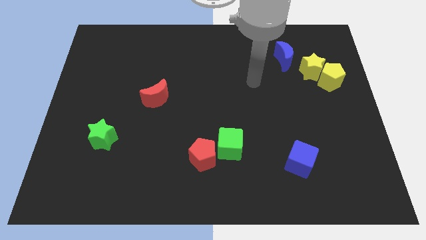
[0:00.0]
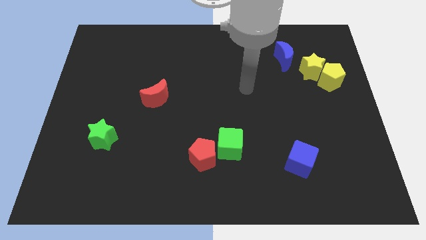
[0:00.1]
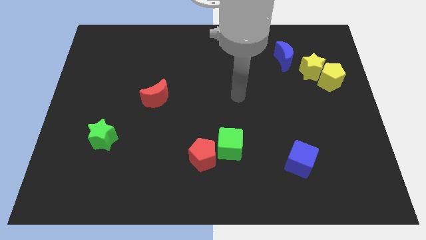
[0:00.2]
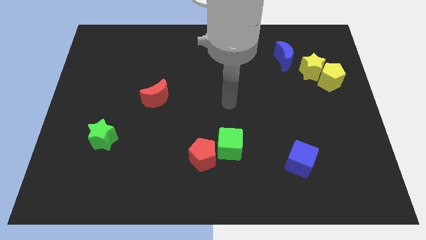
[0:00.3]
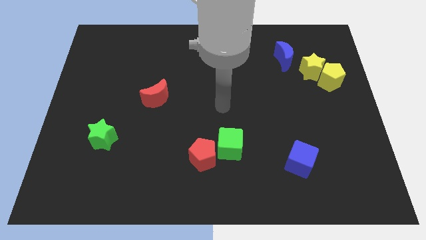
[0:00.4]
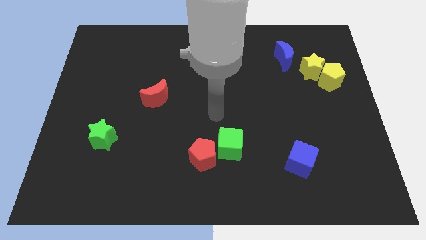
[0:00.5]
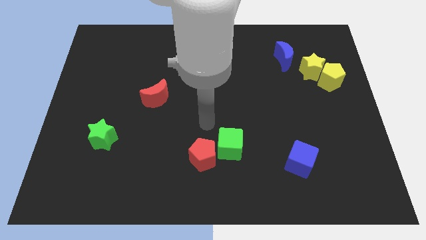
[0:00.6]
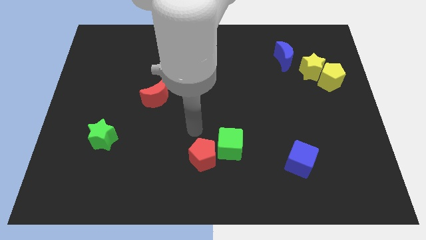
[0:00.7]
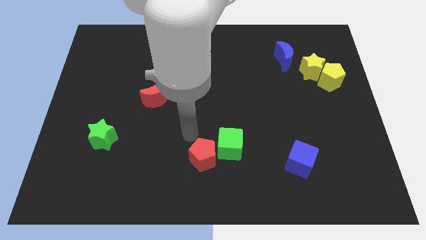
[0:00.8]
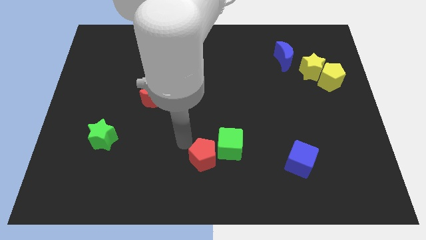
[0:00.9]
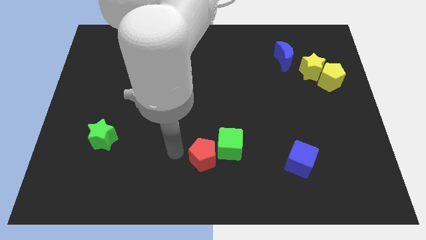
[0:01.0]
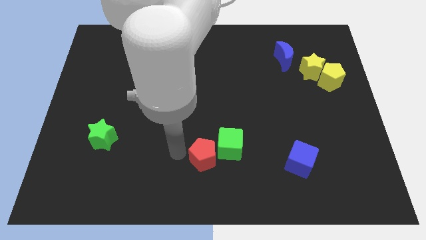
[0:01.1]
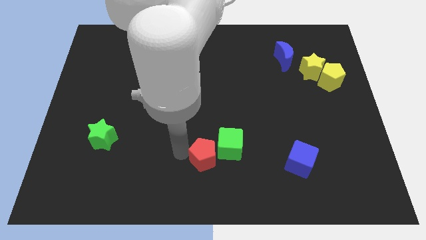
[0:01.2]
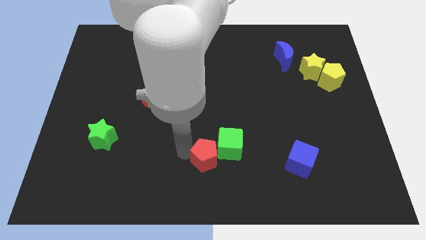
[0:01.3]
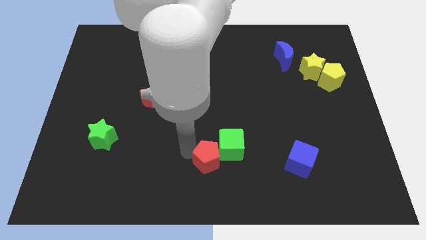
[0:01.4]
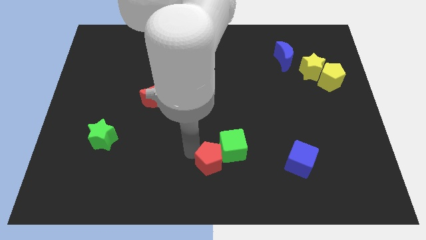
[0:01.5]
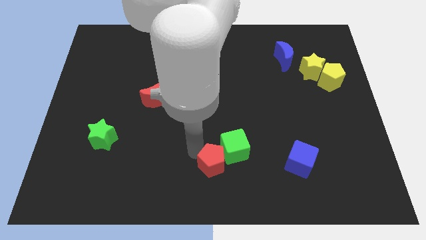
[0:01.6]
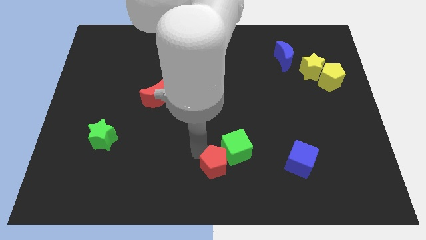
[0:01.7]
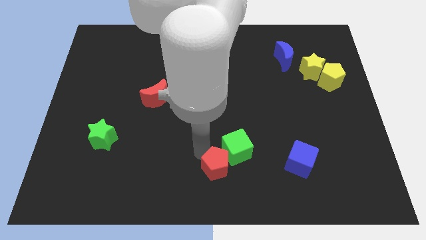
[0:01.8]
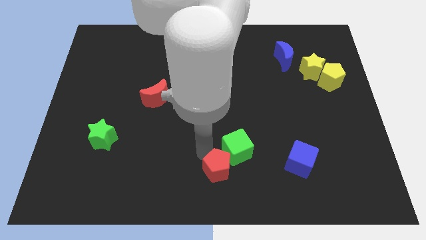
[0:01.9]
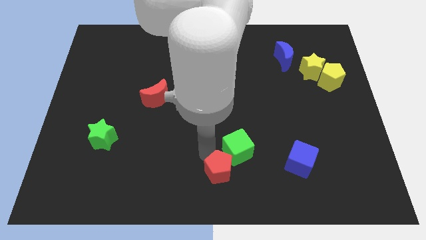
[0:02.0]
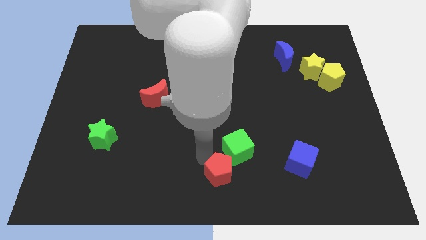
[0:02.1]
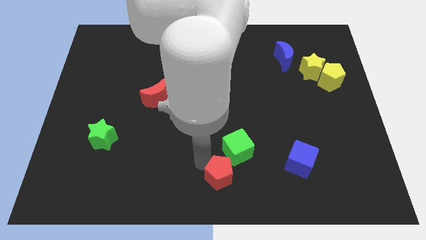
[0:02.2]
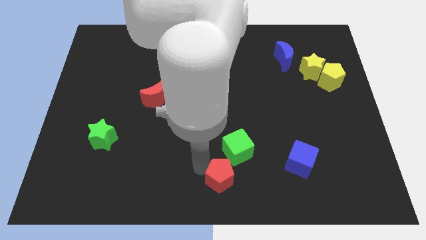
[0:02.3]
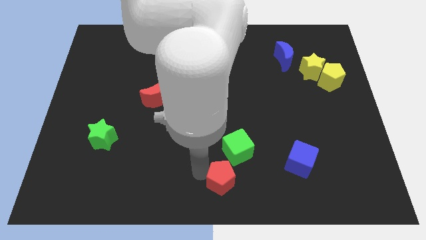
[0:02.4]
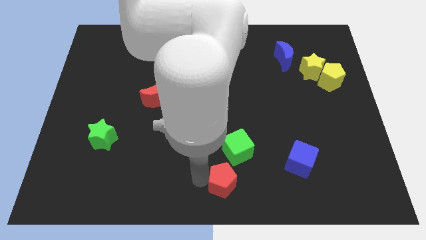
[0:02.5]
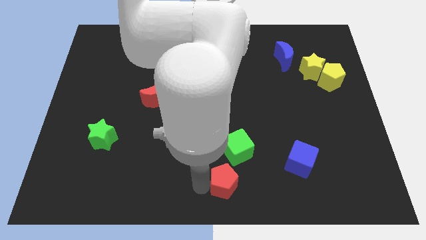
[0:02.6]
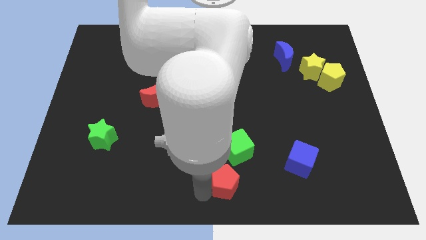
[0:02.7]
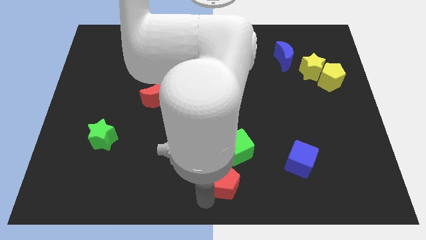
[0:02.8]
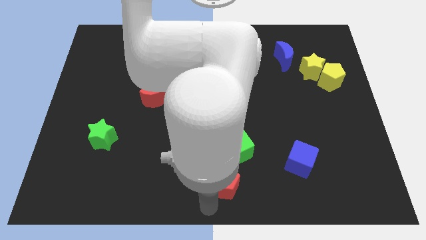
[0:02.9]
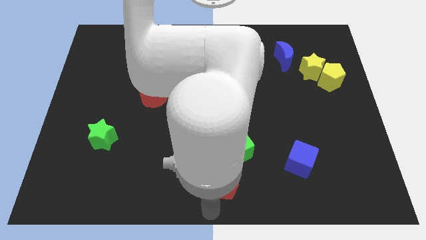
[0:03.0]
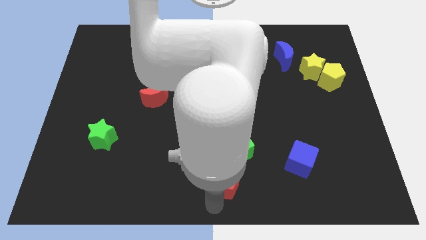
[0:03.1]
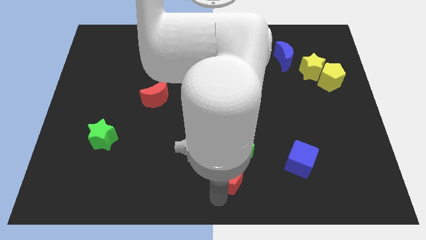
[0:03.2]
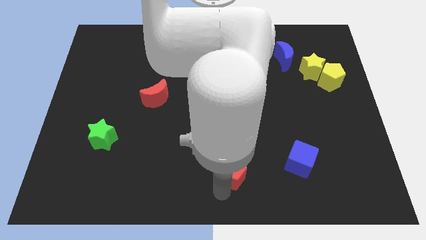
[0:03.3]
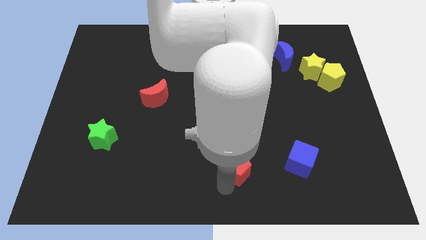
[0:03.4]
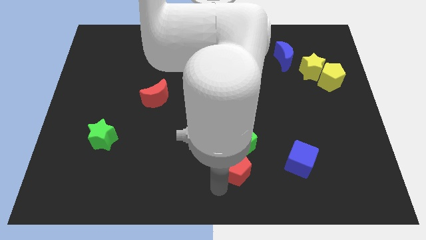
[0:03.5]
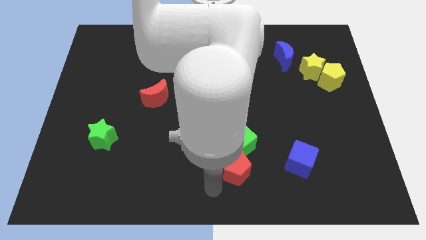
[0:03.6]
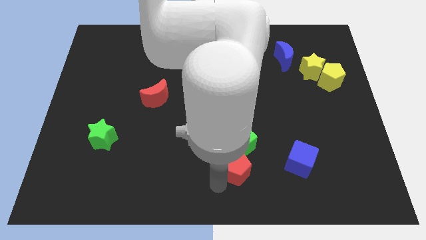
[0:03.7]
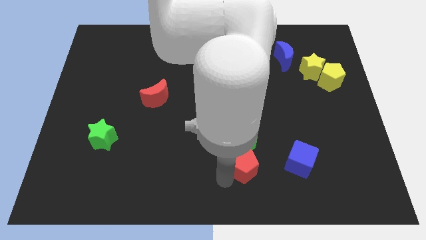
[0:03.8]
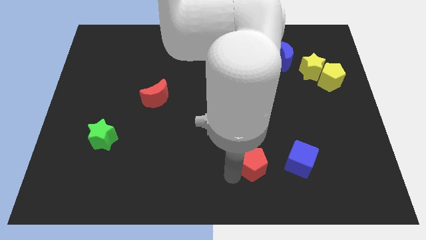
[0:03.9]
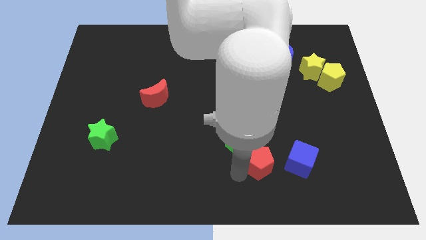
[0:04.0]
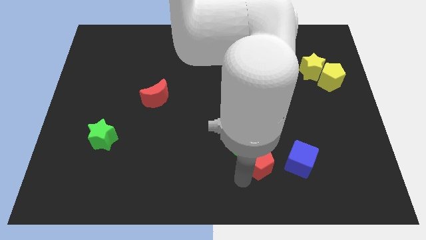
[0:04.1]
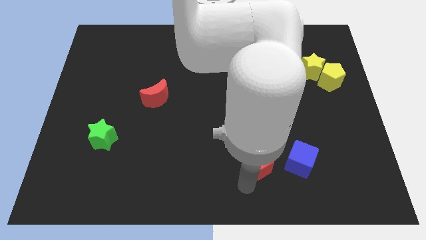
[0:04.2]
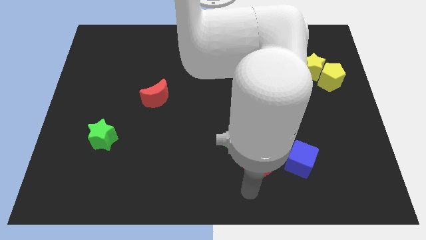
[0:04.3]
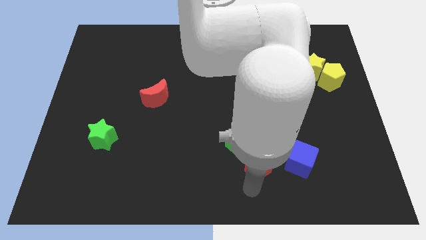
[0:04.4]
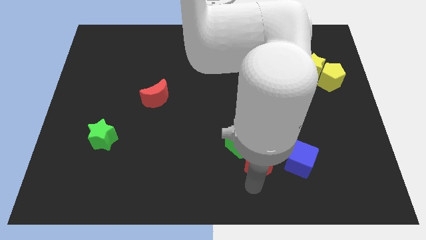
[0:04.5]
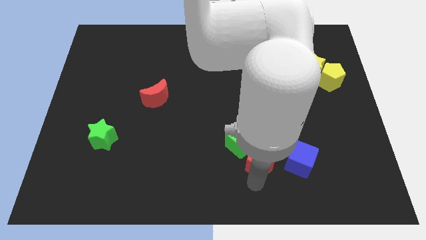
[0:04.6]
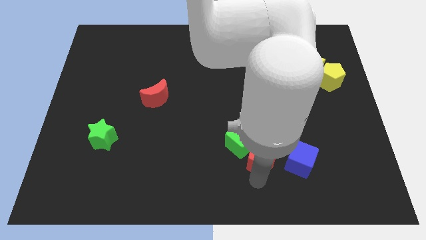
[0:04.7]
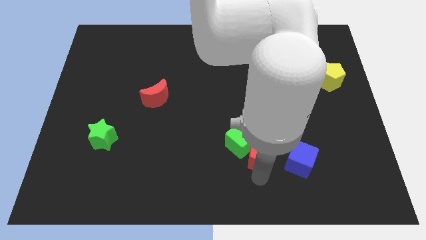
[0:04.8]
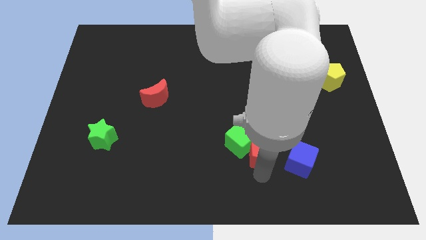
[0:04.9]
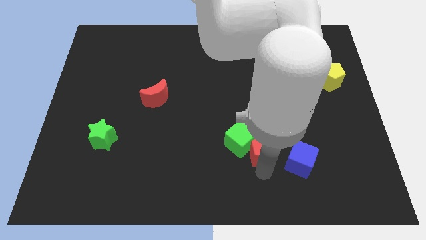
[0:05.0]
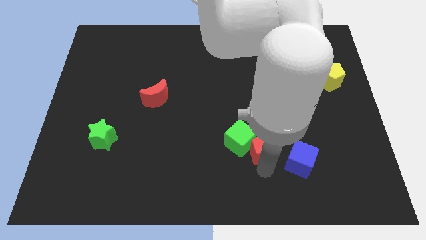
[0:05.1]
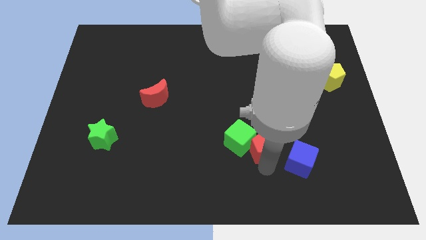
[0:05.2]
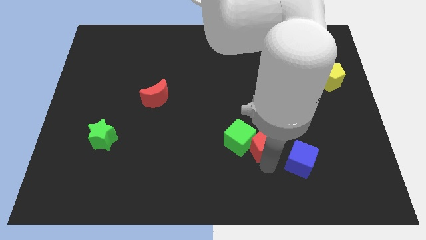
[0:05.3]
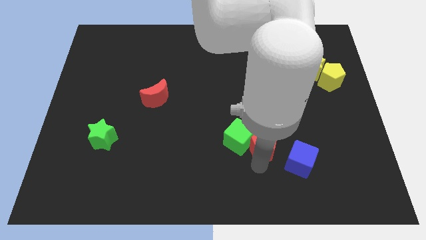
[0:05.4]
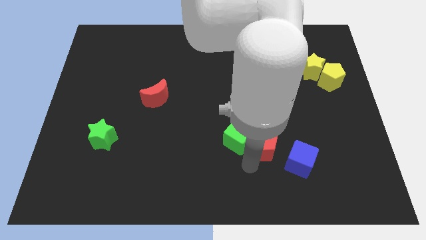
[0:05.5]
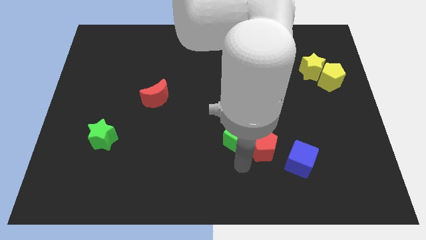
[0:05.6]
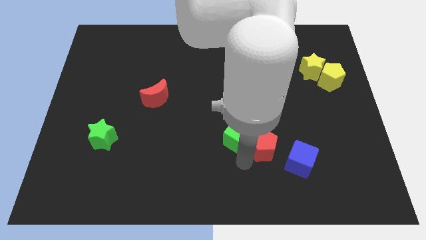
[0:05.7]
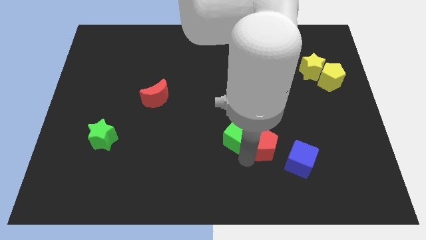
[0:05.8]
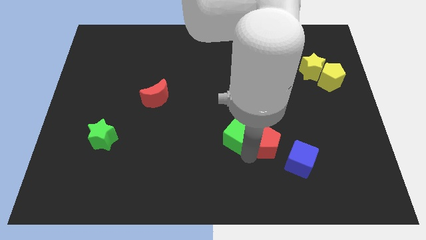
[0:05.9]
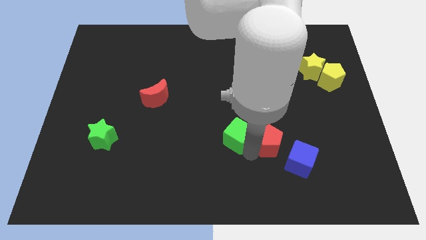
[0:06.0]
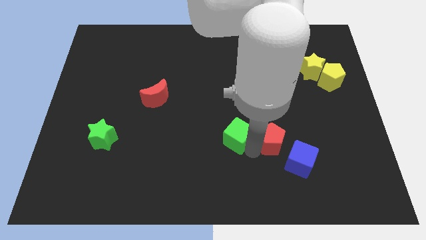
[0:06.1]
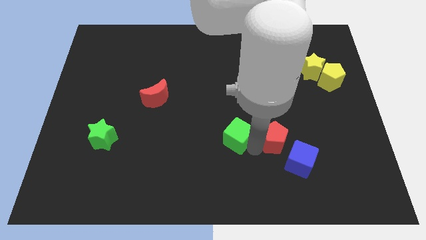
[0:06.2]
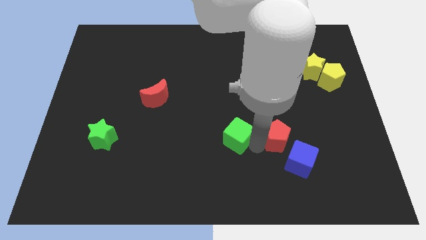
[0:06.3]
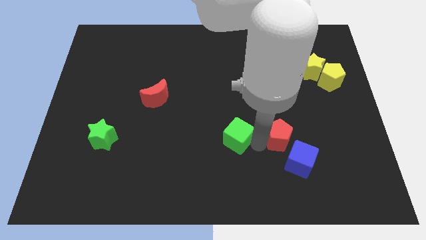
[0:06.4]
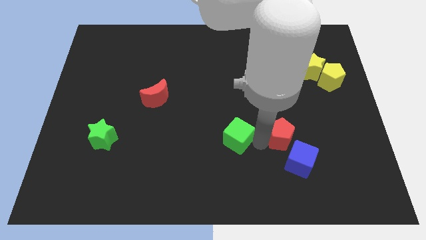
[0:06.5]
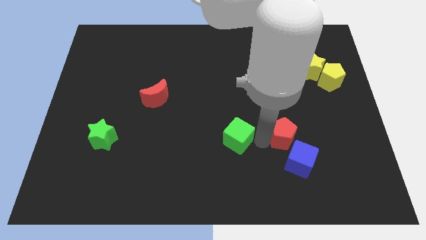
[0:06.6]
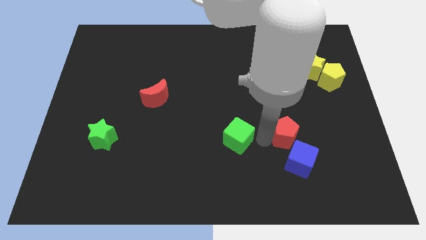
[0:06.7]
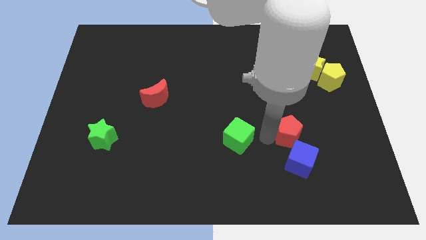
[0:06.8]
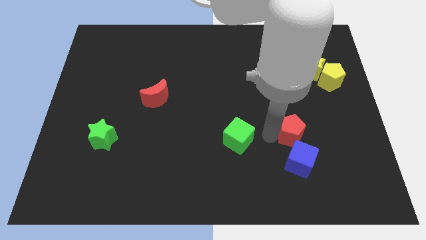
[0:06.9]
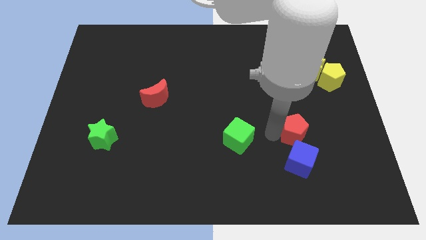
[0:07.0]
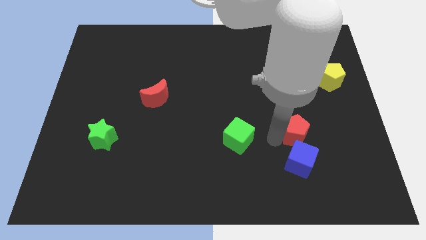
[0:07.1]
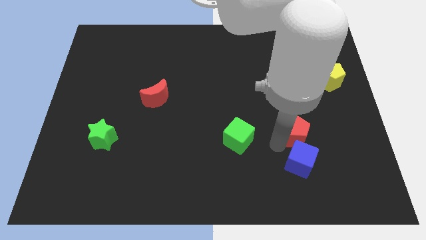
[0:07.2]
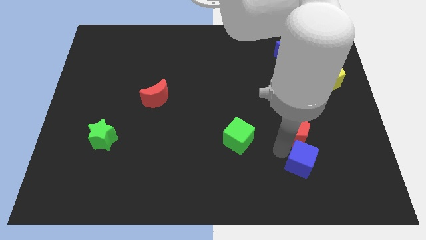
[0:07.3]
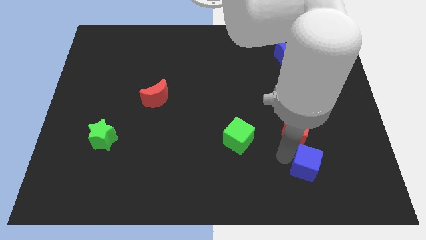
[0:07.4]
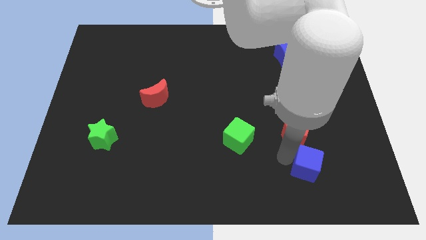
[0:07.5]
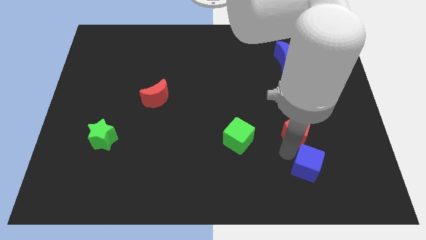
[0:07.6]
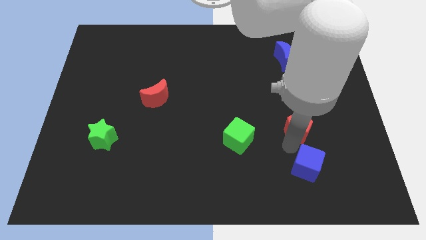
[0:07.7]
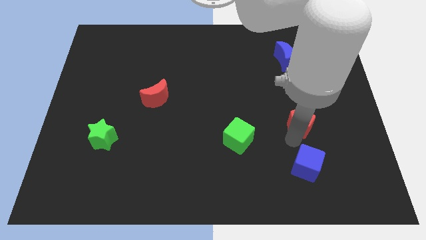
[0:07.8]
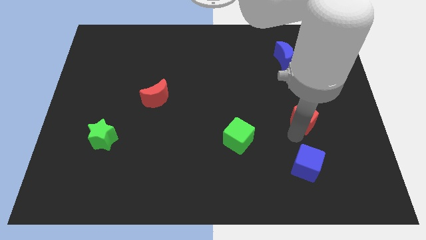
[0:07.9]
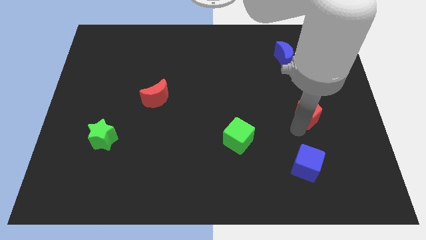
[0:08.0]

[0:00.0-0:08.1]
move the red pentagon to the bottom of the yellow star
